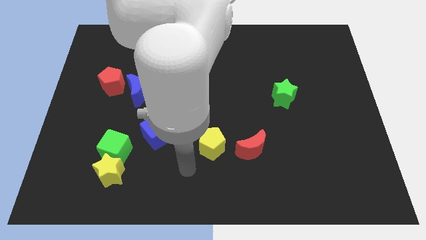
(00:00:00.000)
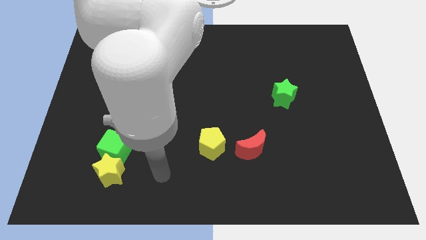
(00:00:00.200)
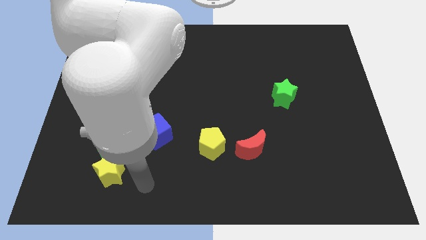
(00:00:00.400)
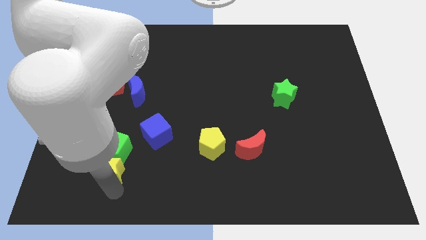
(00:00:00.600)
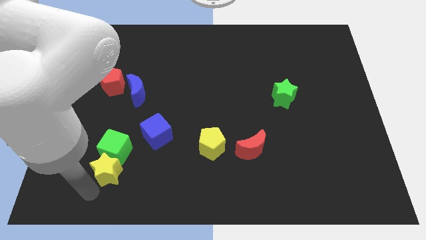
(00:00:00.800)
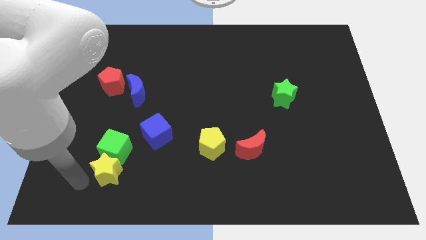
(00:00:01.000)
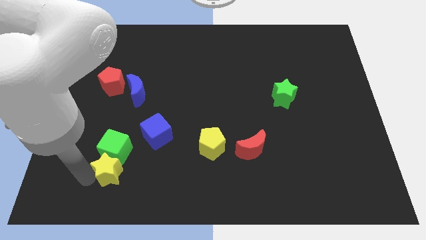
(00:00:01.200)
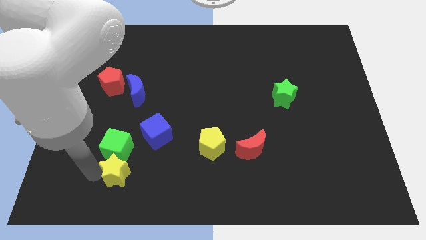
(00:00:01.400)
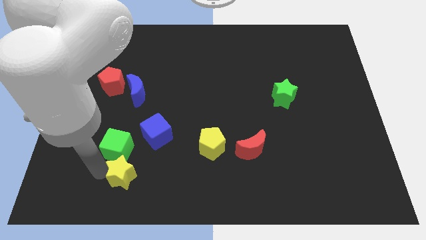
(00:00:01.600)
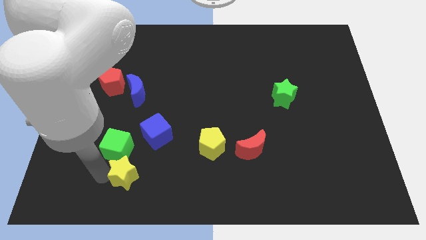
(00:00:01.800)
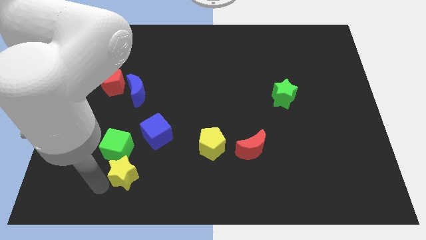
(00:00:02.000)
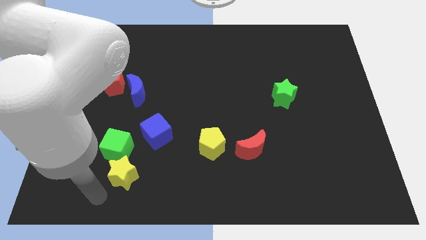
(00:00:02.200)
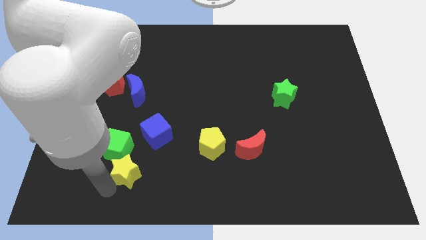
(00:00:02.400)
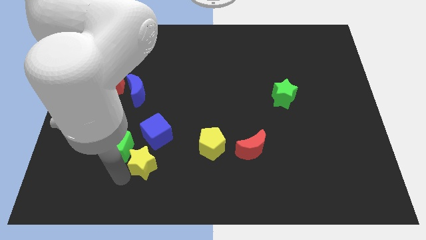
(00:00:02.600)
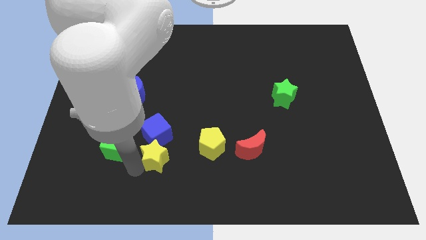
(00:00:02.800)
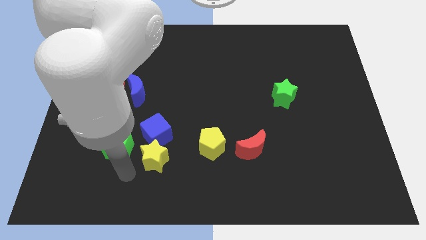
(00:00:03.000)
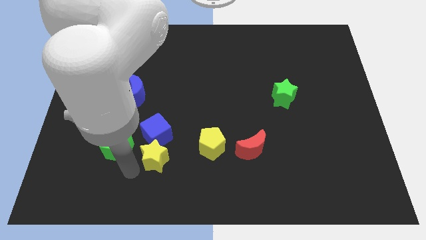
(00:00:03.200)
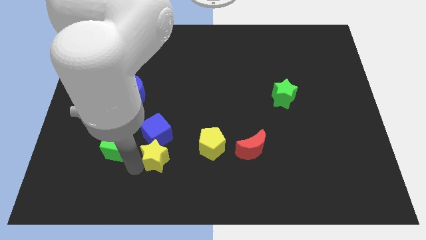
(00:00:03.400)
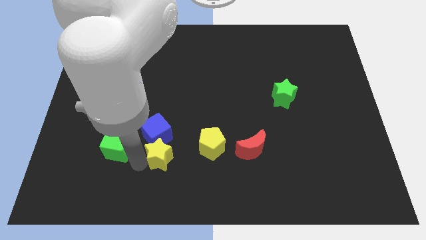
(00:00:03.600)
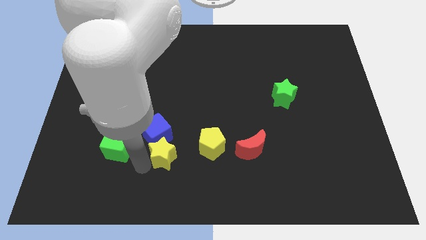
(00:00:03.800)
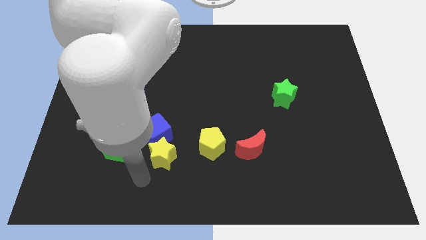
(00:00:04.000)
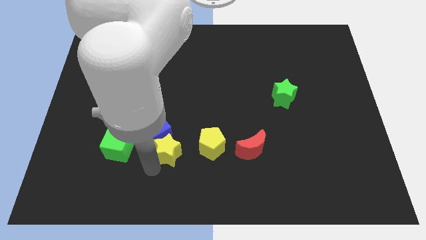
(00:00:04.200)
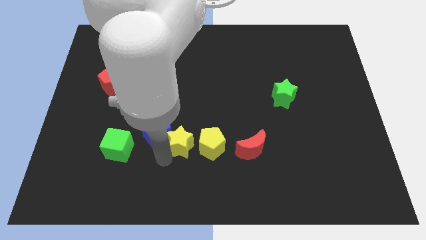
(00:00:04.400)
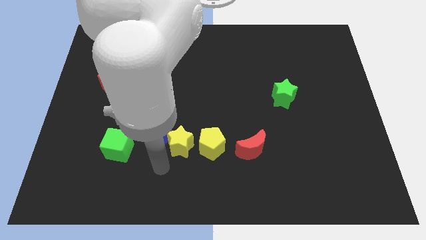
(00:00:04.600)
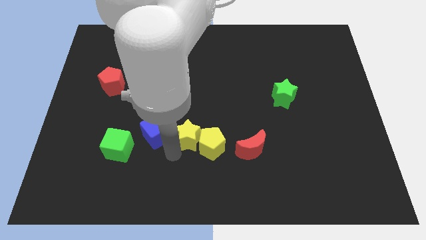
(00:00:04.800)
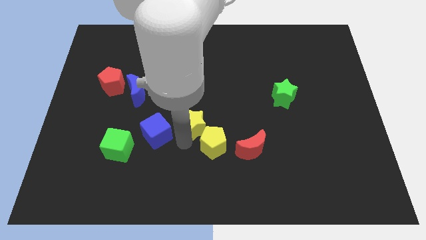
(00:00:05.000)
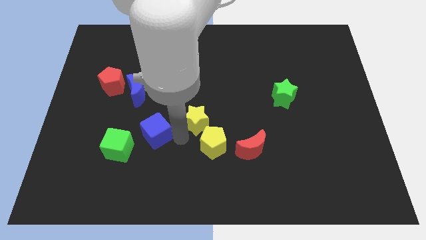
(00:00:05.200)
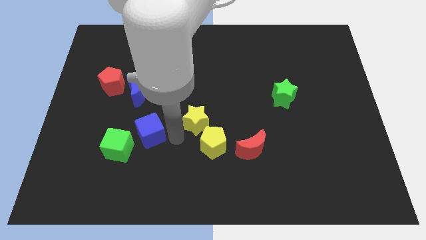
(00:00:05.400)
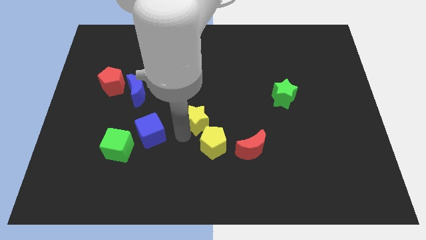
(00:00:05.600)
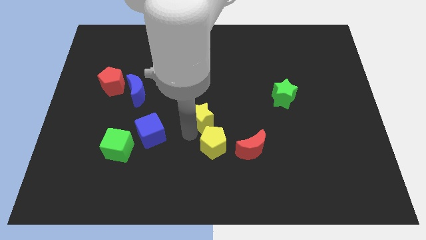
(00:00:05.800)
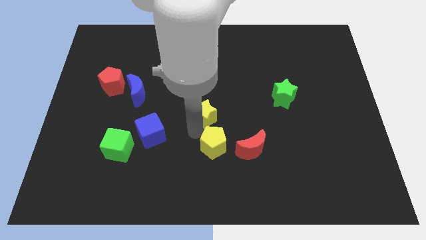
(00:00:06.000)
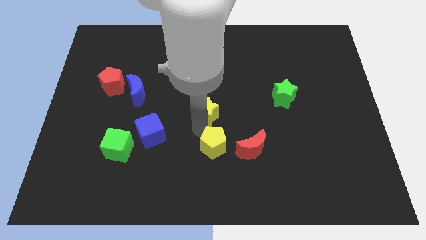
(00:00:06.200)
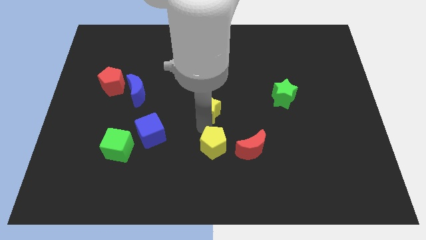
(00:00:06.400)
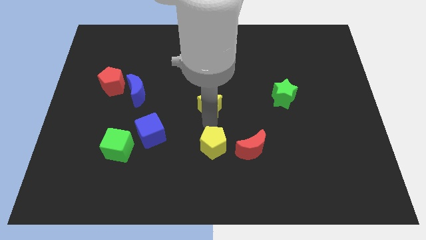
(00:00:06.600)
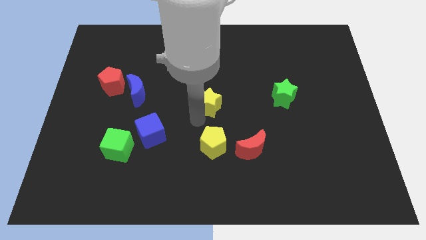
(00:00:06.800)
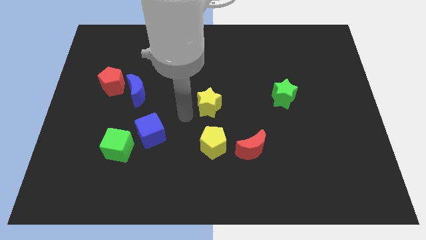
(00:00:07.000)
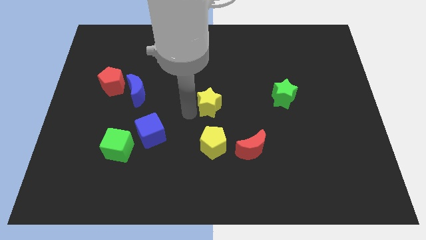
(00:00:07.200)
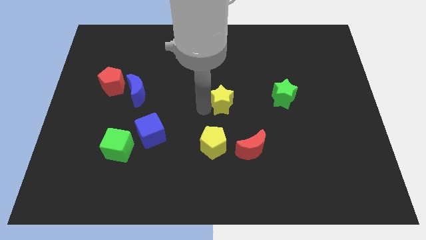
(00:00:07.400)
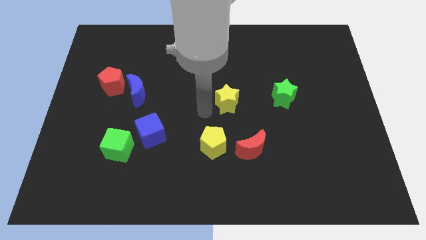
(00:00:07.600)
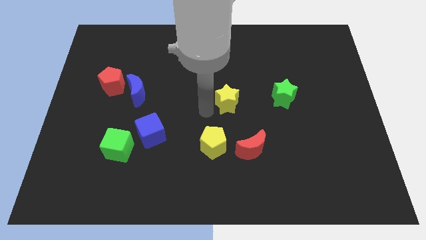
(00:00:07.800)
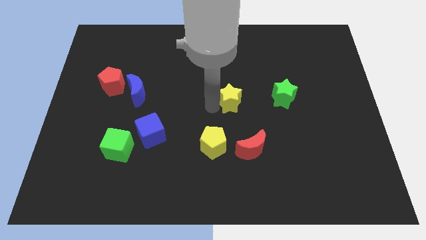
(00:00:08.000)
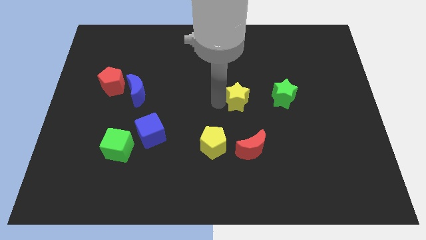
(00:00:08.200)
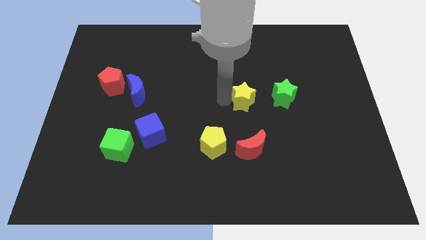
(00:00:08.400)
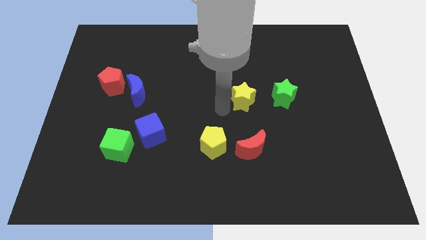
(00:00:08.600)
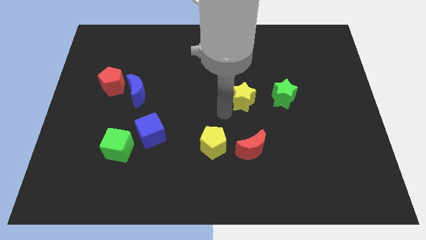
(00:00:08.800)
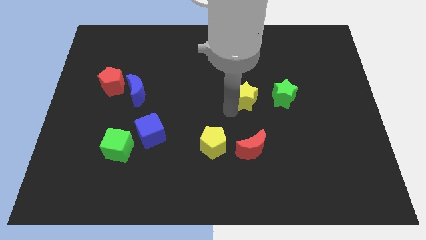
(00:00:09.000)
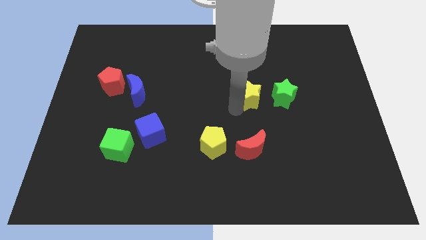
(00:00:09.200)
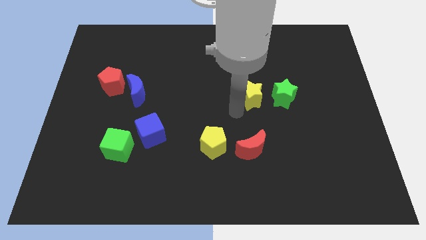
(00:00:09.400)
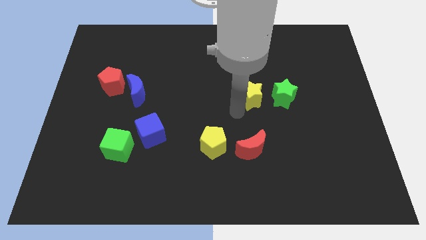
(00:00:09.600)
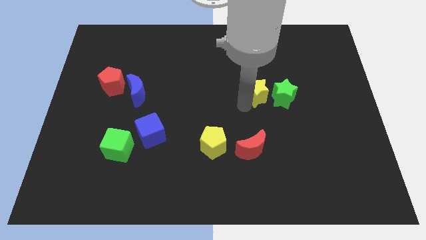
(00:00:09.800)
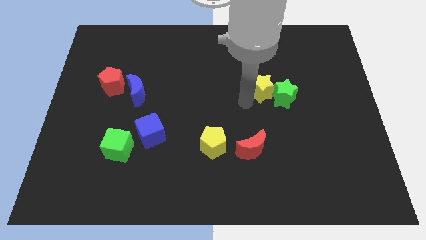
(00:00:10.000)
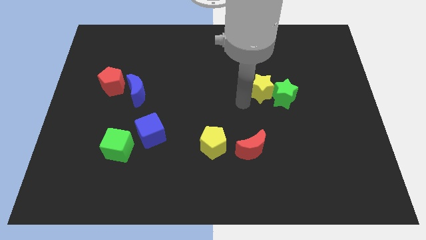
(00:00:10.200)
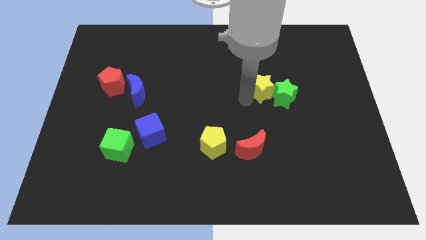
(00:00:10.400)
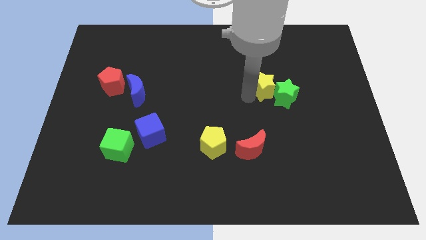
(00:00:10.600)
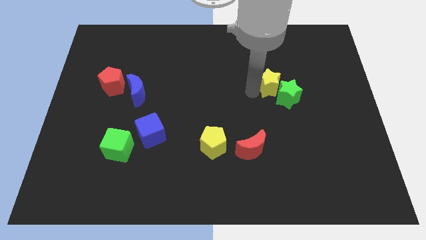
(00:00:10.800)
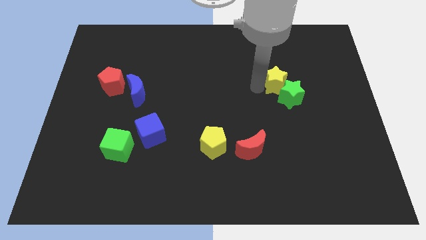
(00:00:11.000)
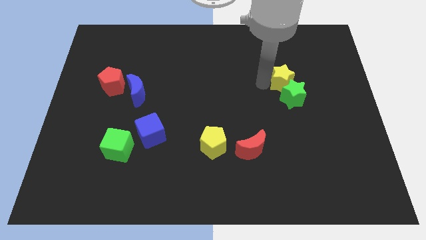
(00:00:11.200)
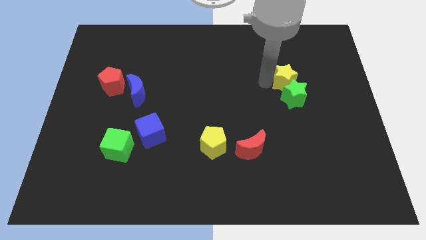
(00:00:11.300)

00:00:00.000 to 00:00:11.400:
put the yellow star to the top right of the green star

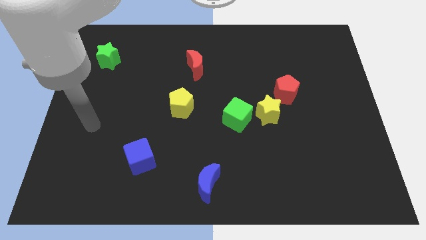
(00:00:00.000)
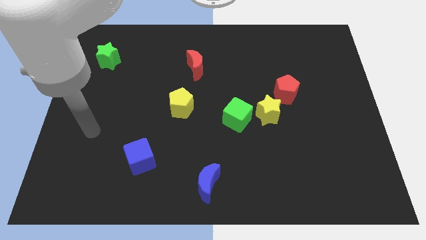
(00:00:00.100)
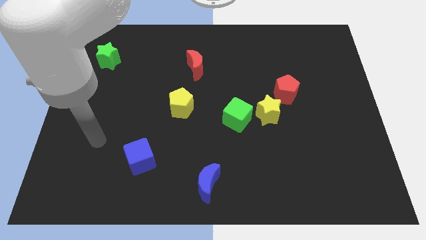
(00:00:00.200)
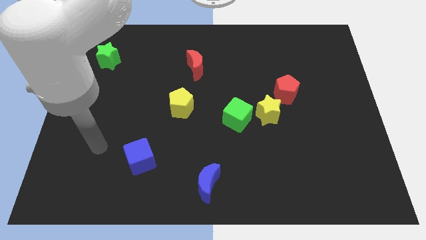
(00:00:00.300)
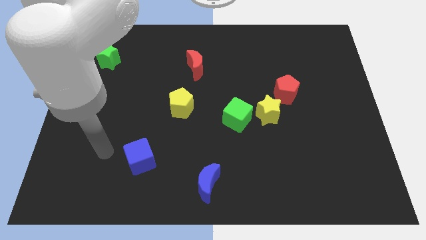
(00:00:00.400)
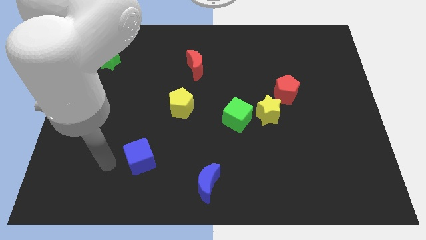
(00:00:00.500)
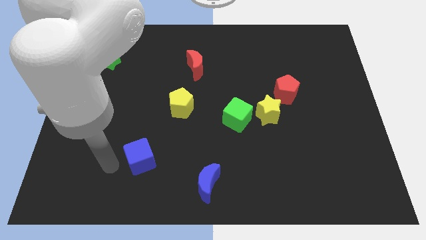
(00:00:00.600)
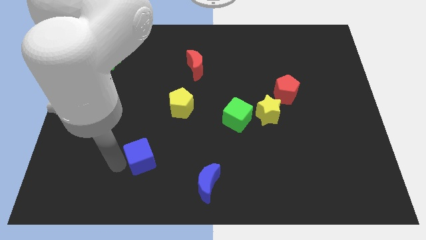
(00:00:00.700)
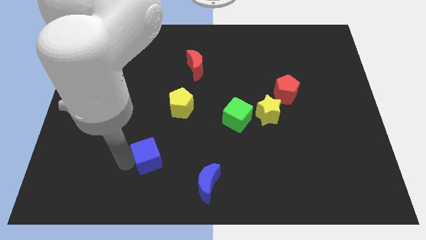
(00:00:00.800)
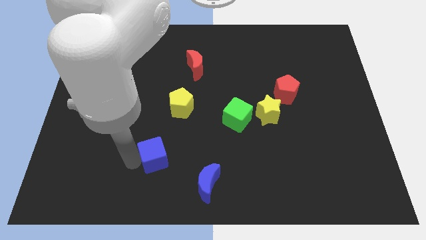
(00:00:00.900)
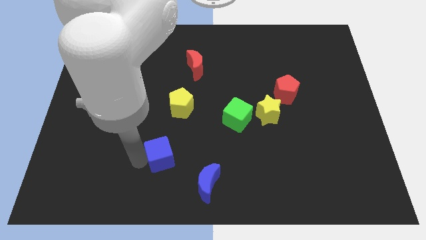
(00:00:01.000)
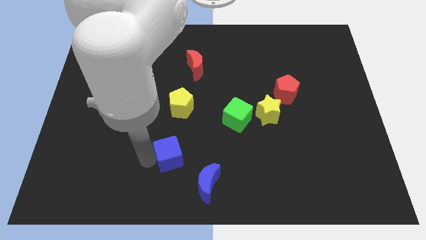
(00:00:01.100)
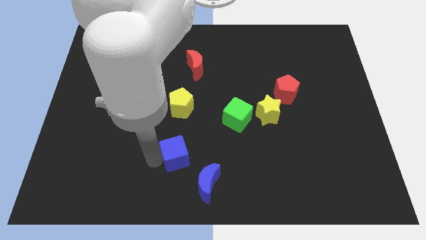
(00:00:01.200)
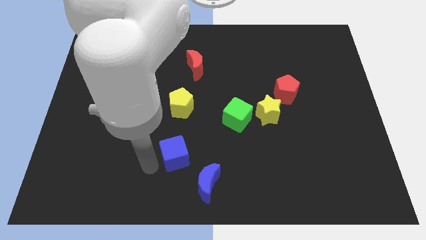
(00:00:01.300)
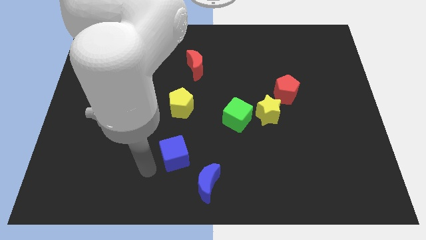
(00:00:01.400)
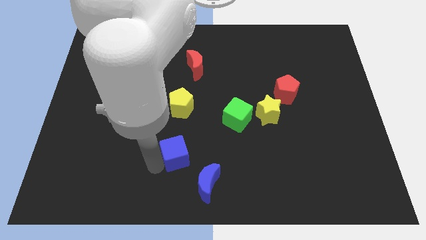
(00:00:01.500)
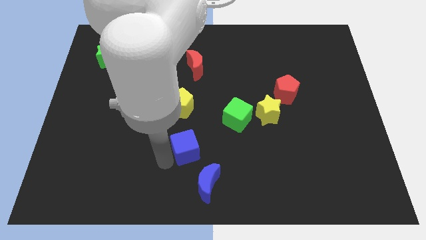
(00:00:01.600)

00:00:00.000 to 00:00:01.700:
push the blue cube to the top of the blue moon

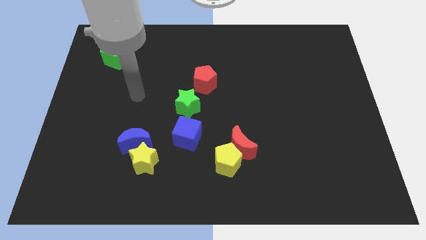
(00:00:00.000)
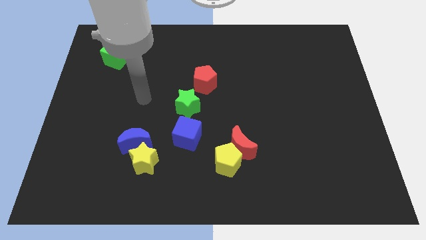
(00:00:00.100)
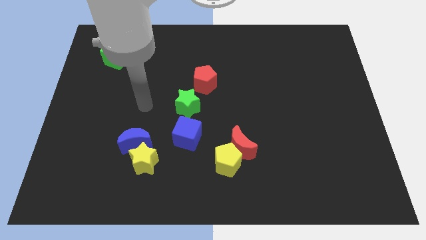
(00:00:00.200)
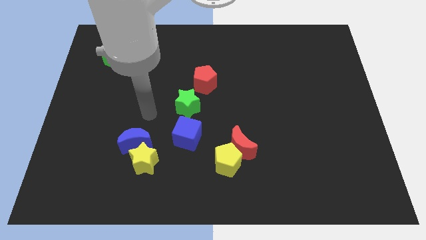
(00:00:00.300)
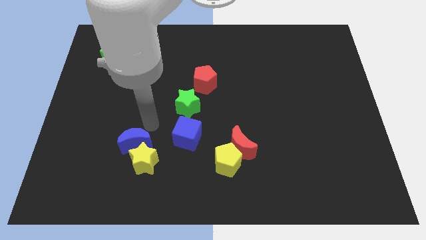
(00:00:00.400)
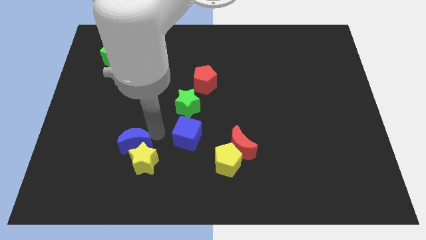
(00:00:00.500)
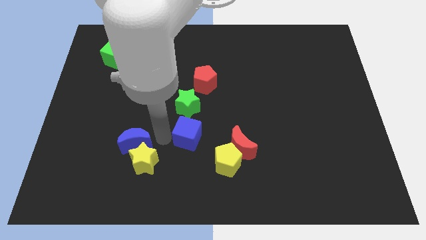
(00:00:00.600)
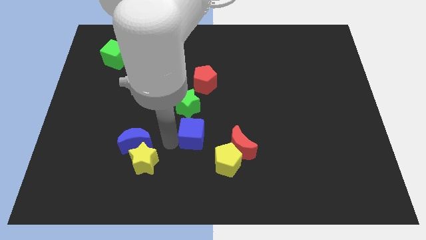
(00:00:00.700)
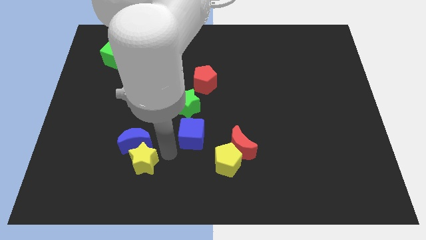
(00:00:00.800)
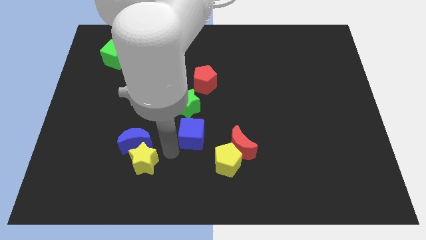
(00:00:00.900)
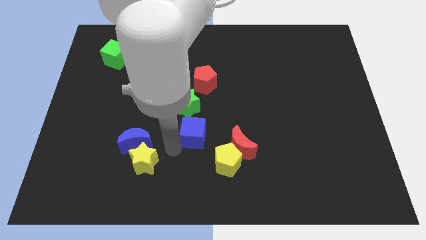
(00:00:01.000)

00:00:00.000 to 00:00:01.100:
put the blue cube diagonally down and to the right of the green star
